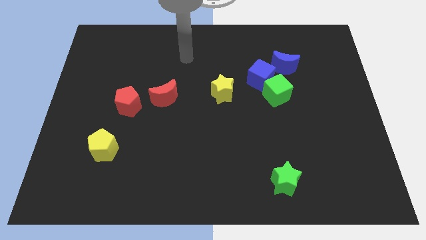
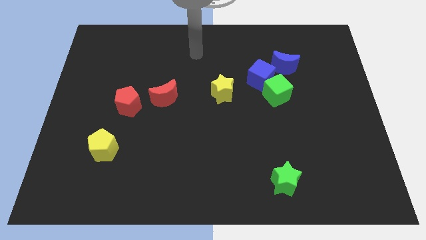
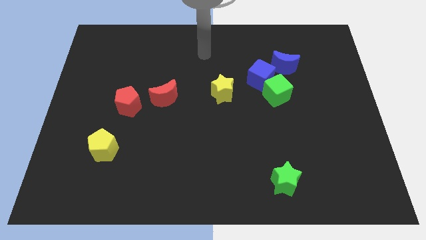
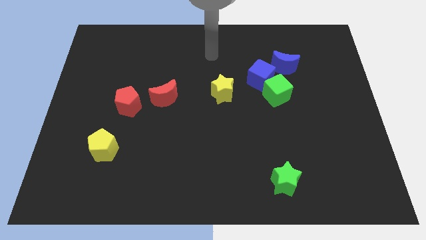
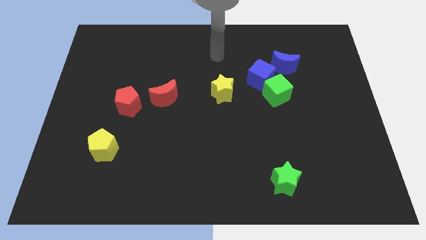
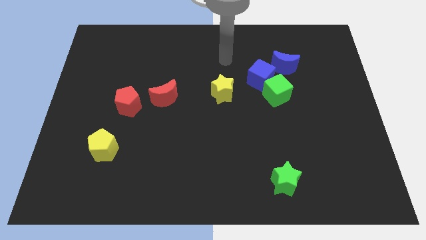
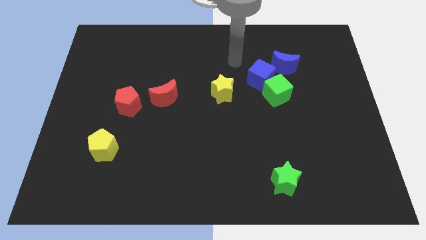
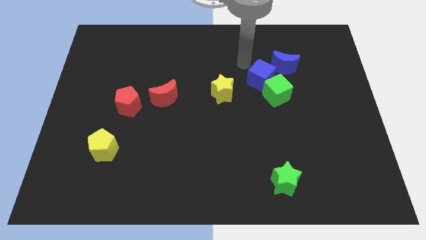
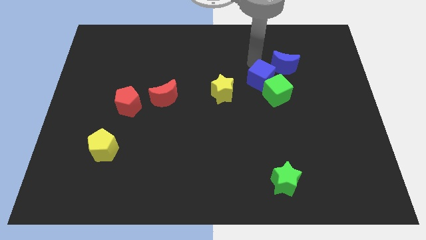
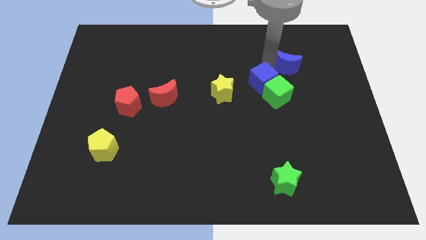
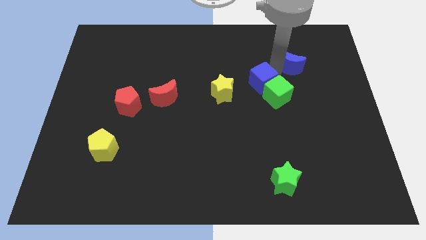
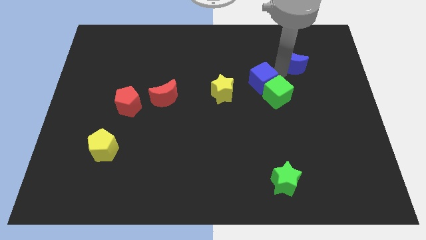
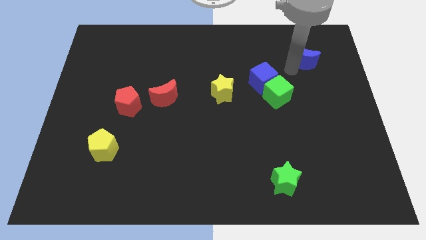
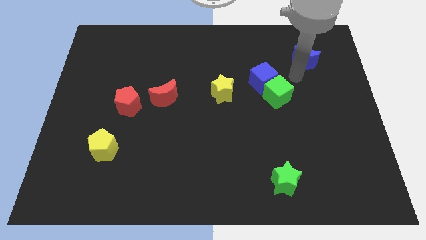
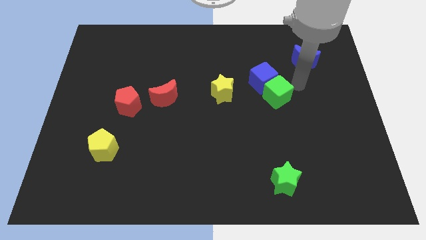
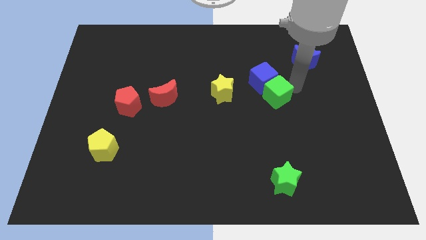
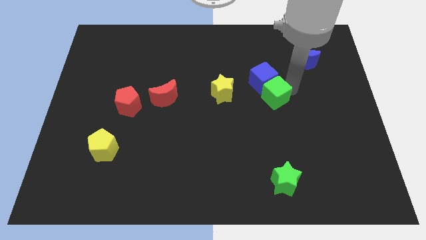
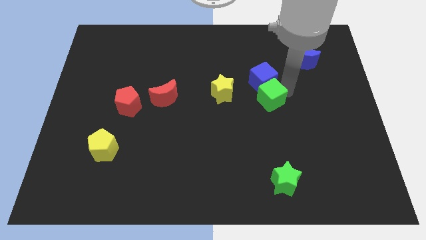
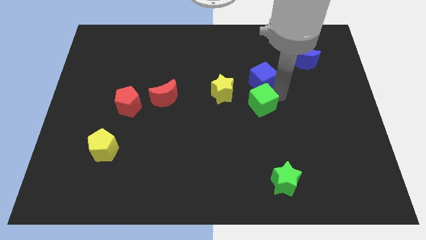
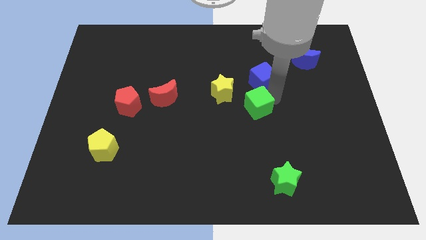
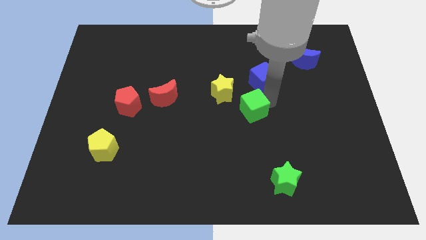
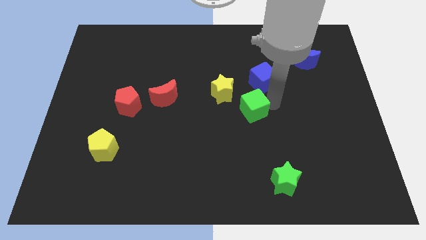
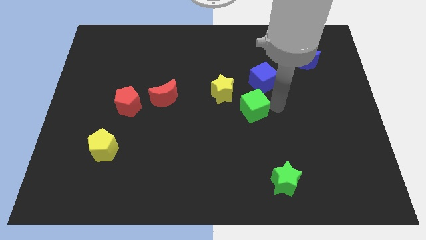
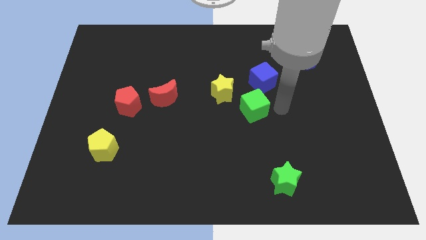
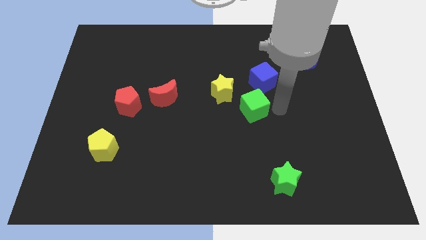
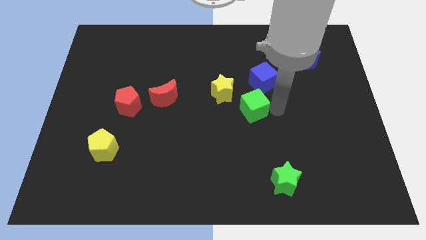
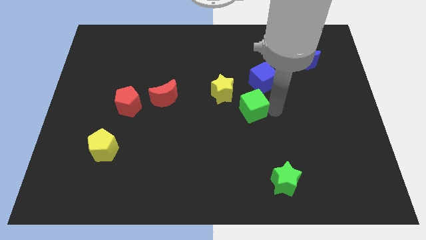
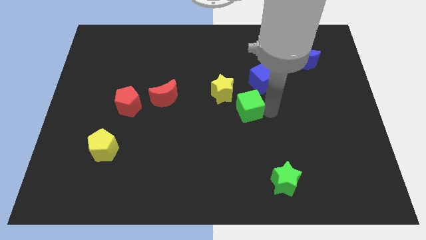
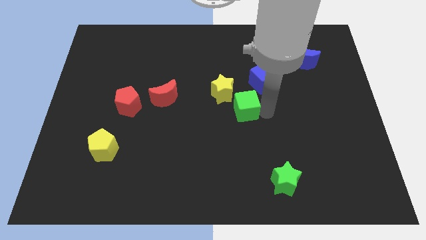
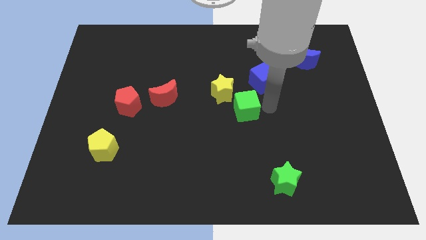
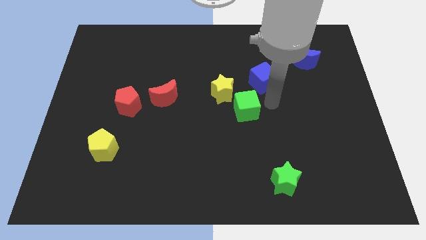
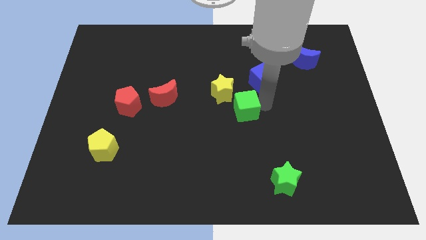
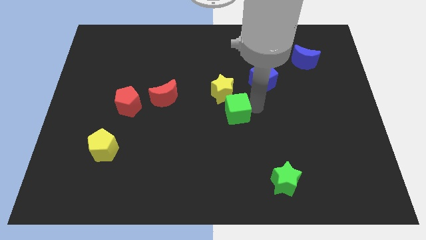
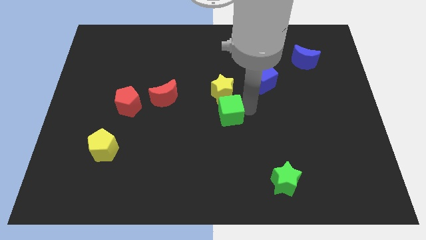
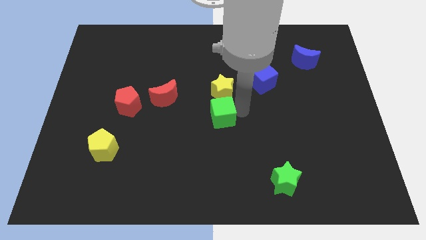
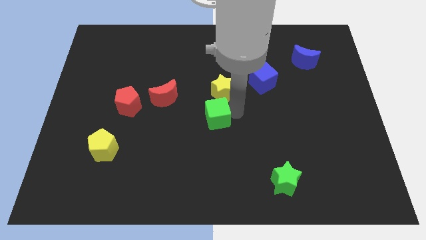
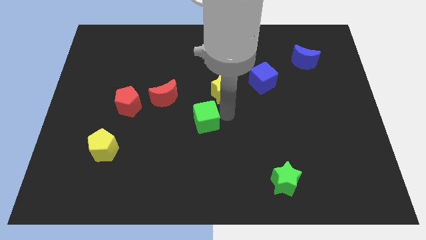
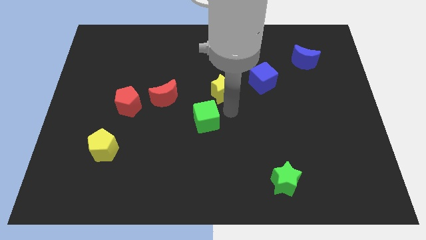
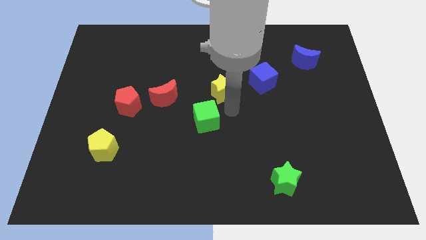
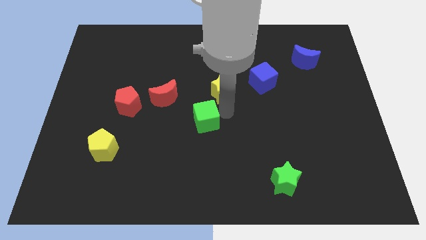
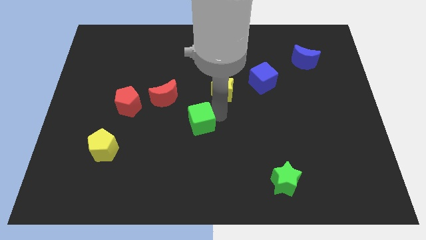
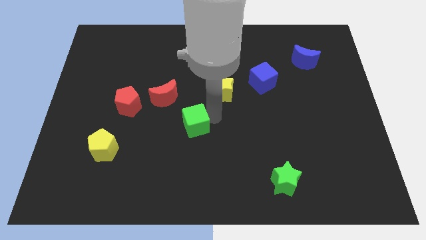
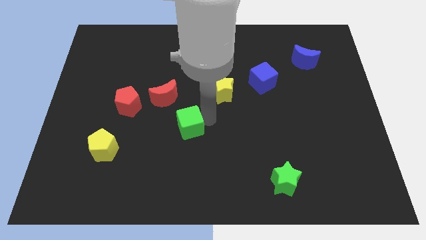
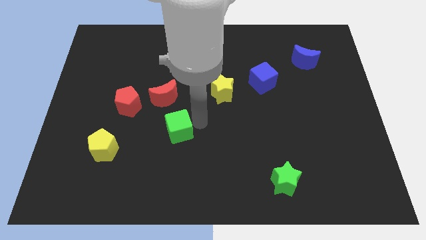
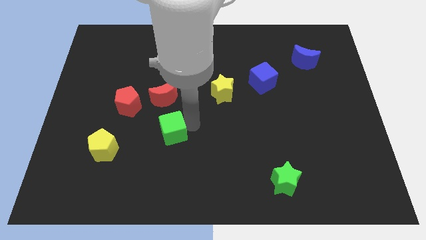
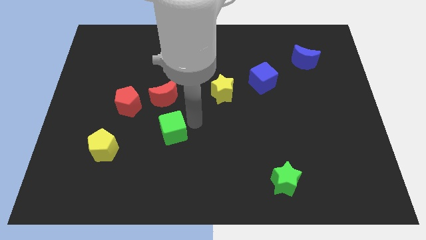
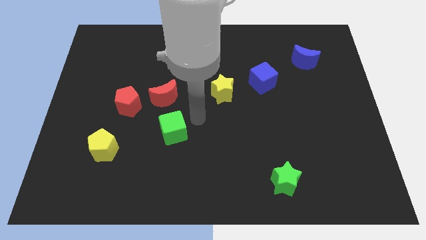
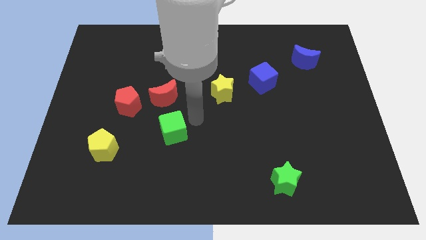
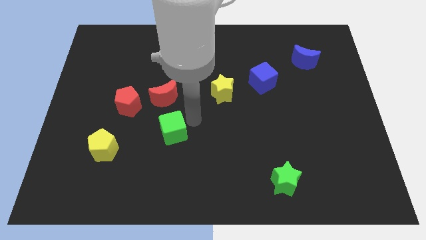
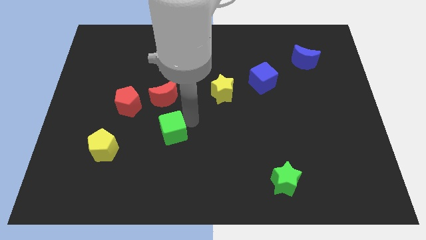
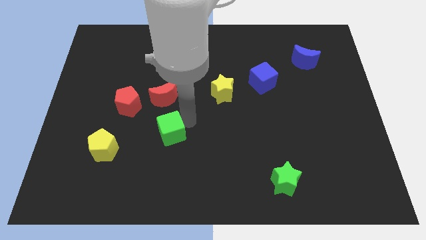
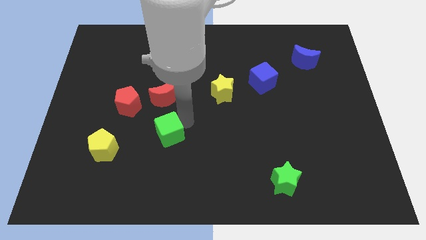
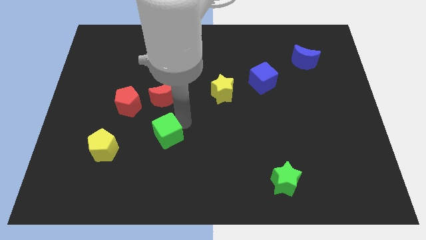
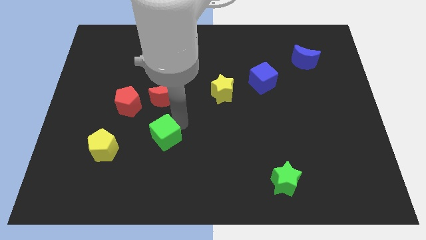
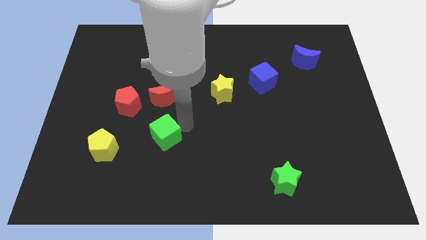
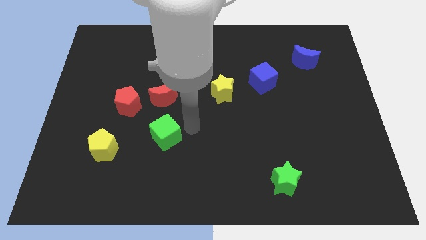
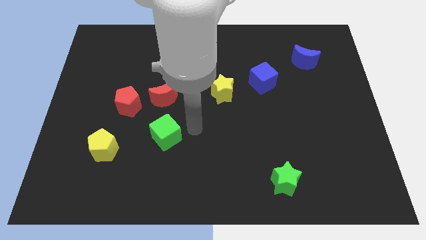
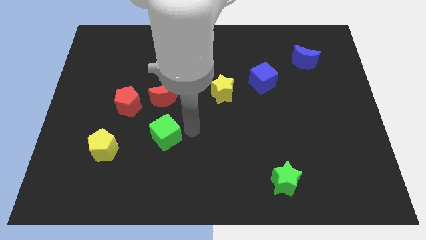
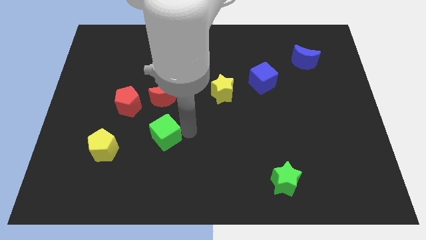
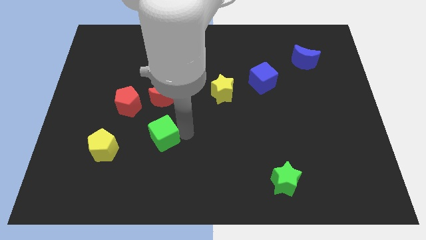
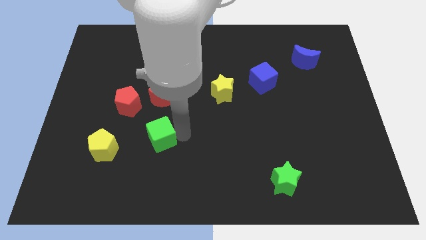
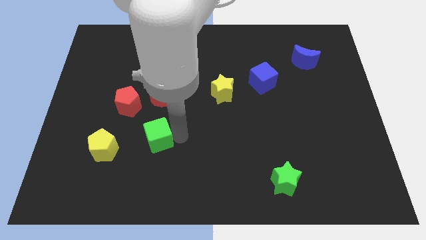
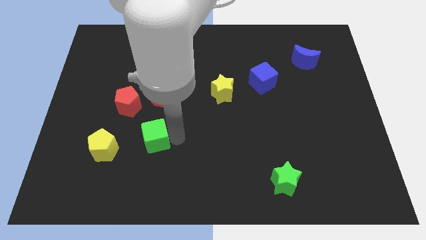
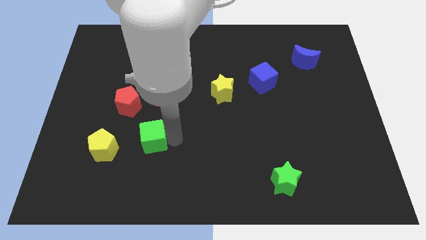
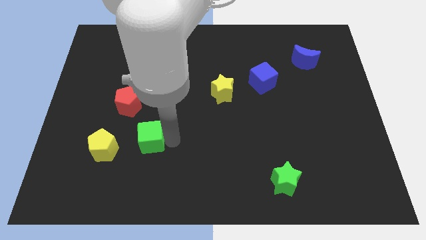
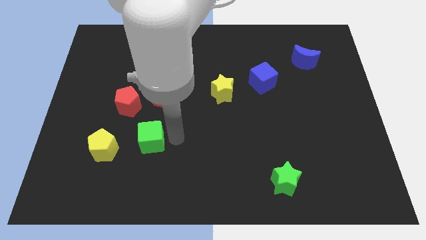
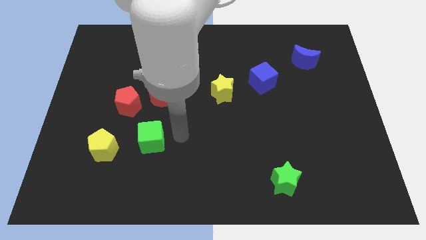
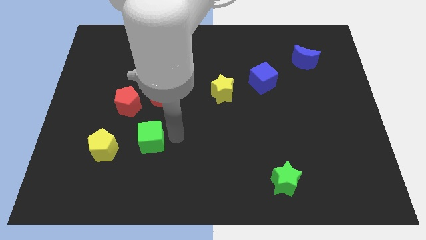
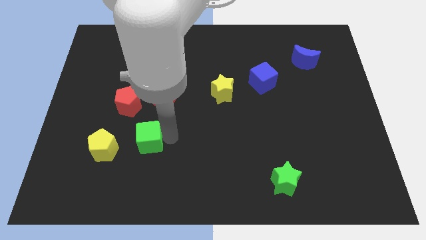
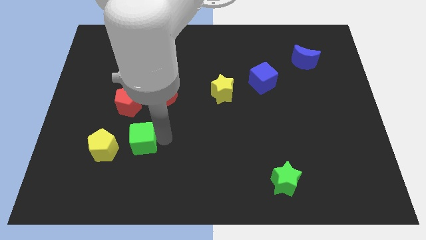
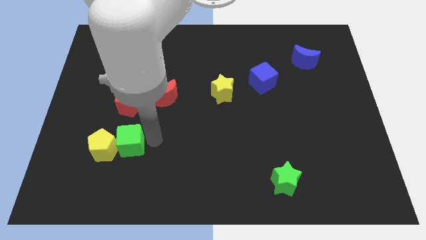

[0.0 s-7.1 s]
slide the green cube towards the yellow pentagon

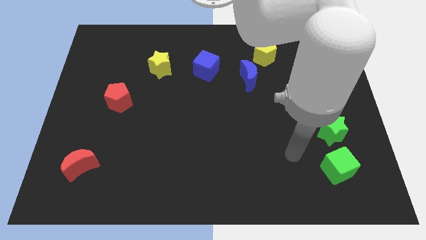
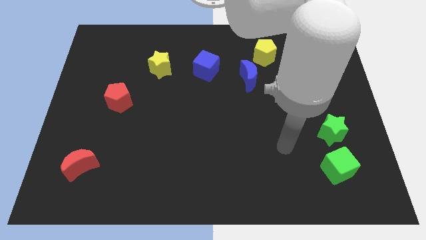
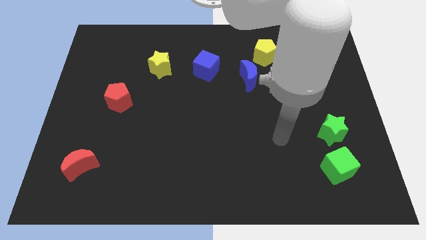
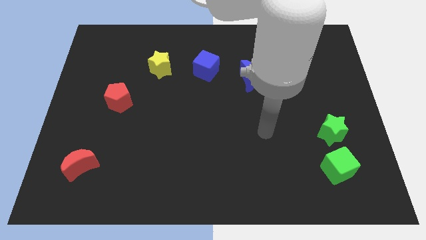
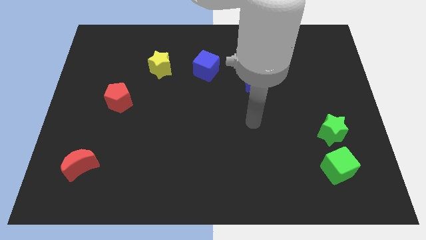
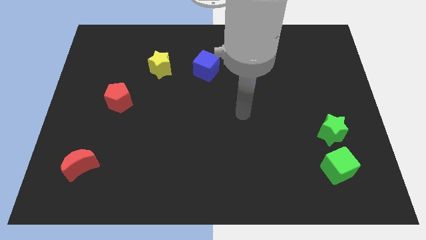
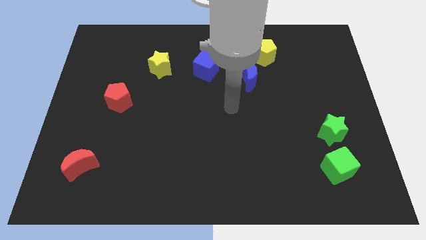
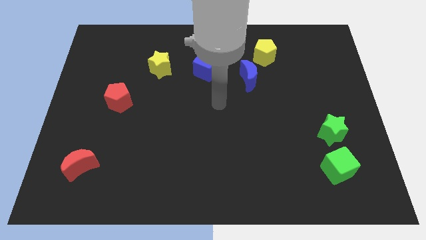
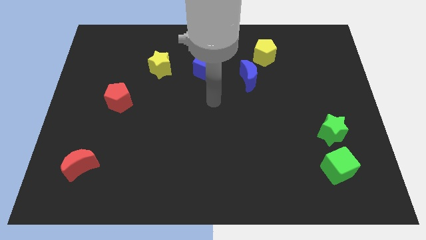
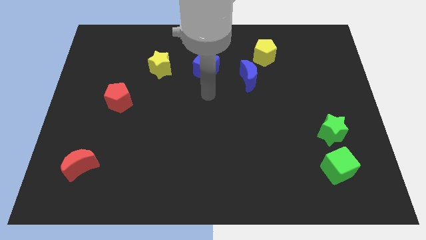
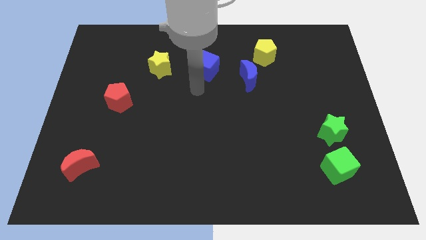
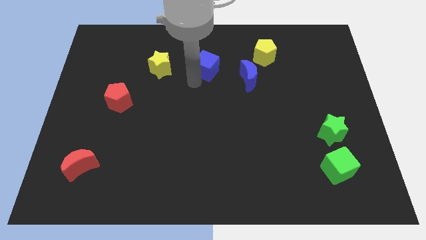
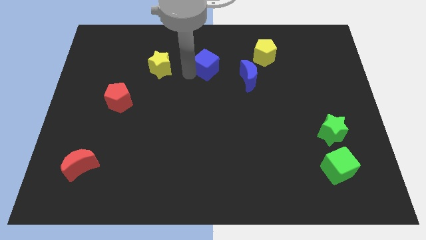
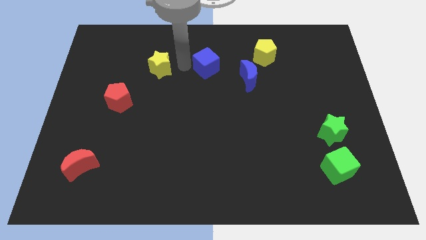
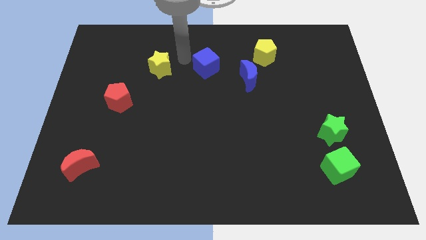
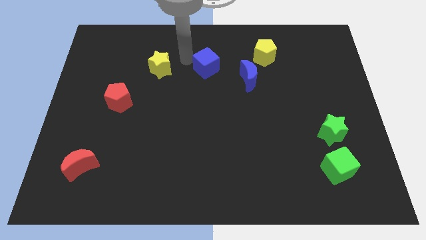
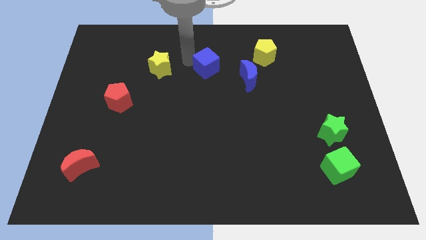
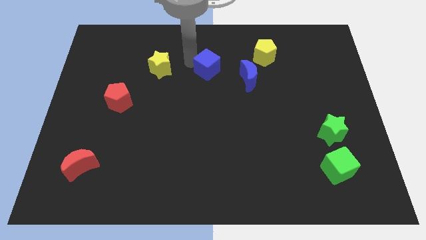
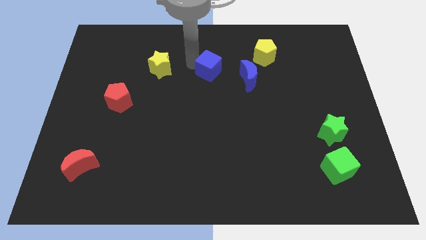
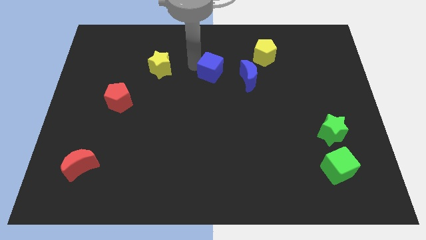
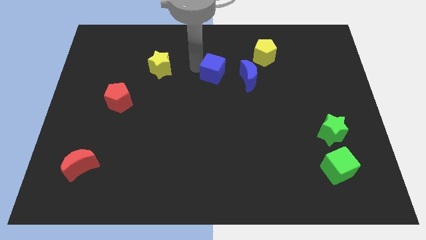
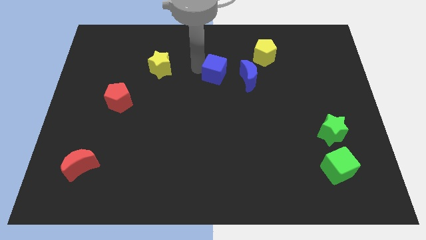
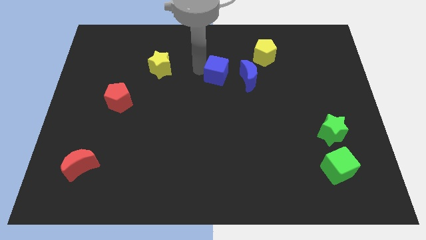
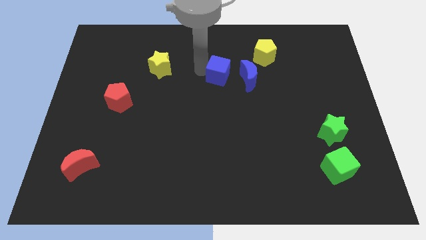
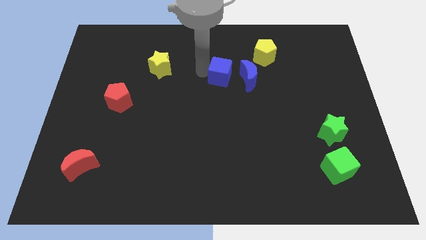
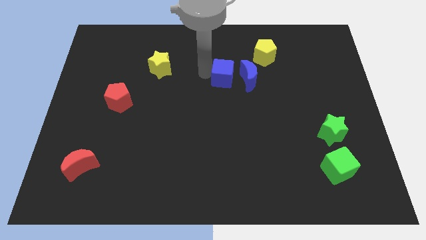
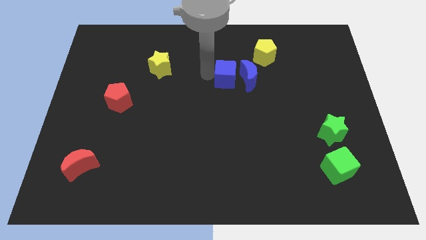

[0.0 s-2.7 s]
slide the blue cube to the blue moon
